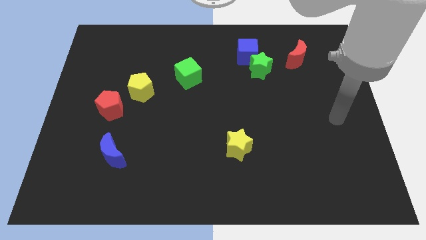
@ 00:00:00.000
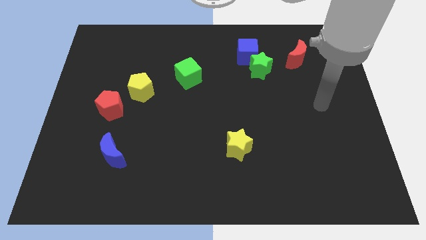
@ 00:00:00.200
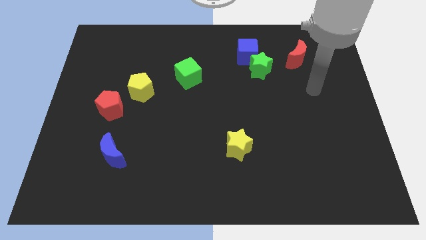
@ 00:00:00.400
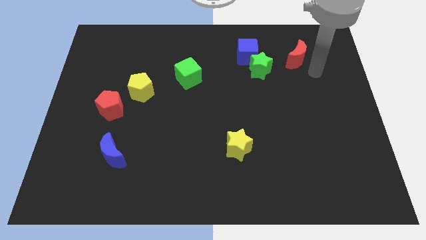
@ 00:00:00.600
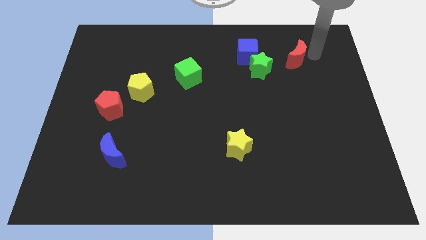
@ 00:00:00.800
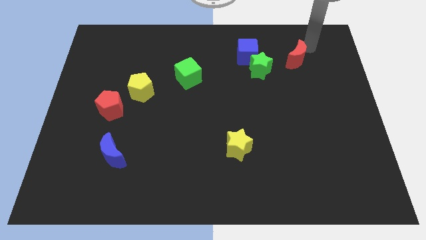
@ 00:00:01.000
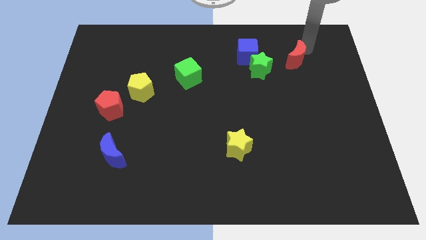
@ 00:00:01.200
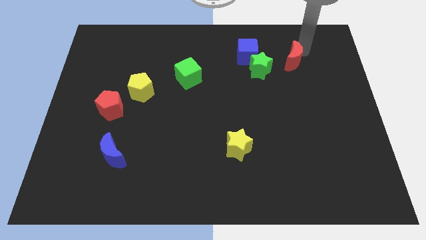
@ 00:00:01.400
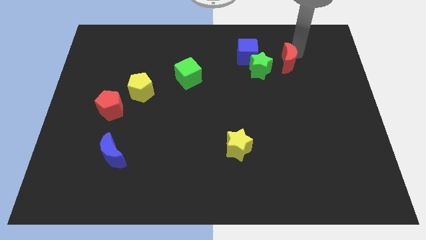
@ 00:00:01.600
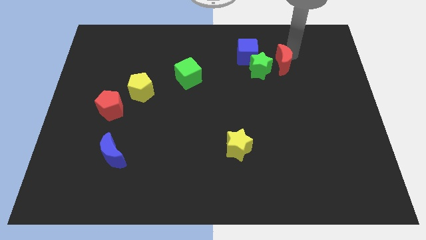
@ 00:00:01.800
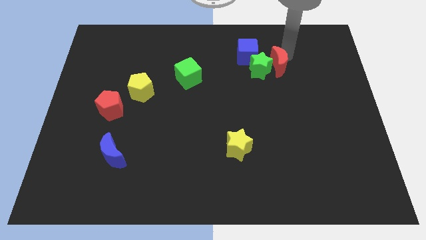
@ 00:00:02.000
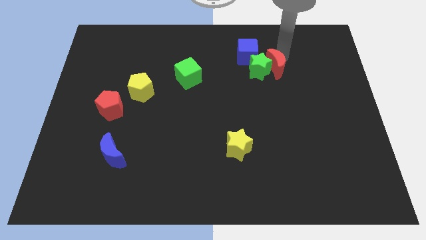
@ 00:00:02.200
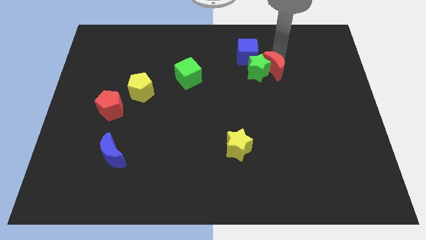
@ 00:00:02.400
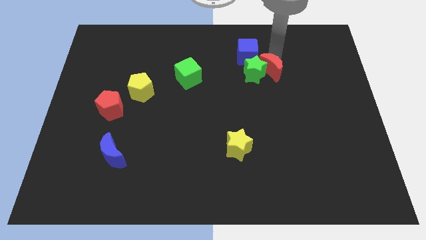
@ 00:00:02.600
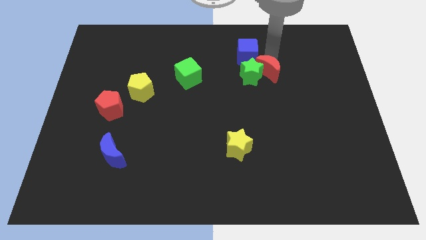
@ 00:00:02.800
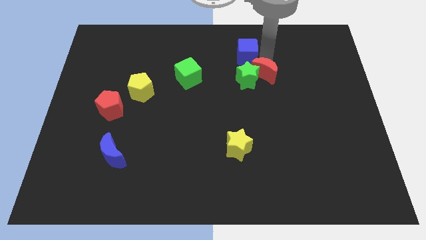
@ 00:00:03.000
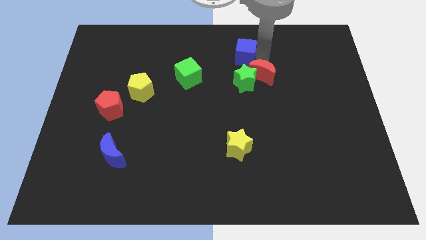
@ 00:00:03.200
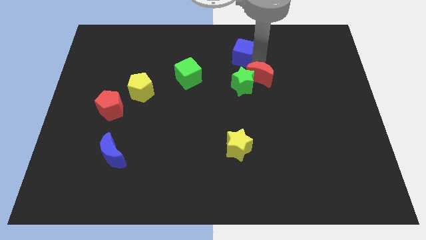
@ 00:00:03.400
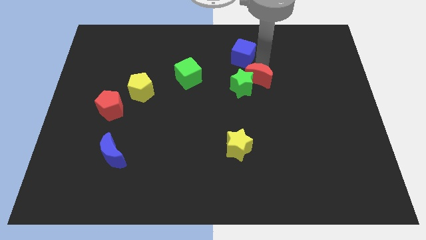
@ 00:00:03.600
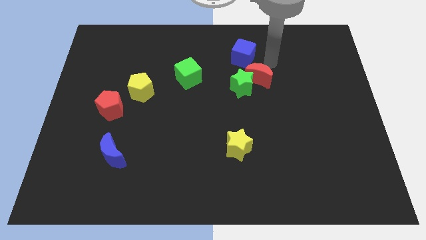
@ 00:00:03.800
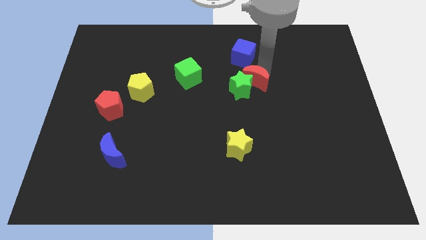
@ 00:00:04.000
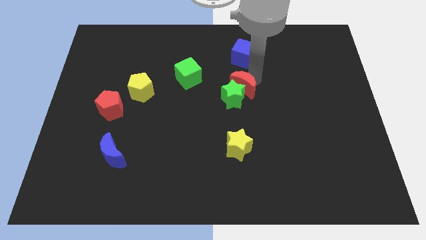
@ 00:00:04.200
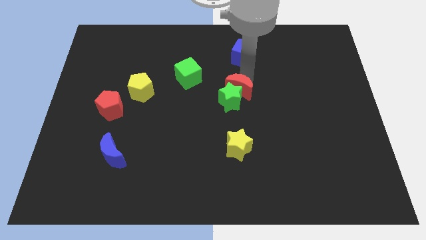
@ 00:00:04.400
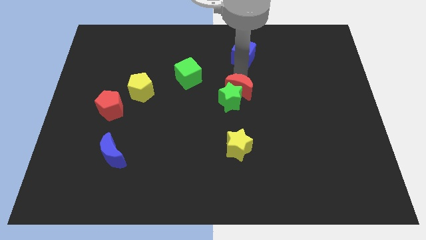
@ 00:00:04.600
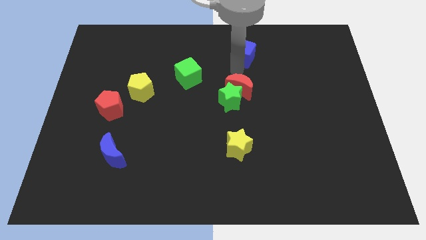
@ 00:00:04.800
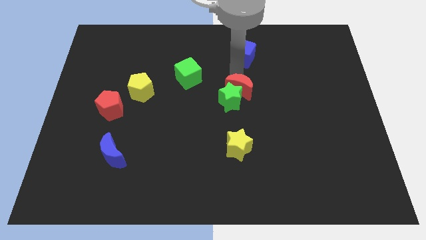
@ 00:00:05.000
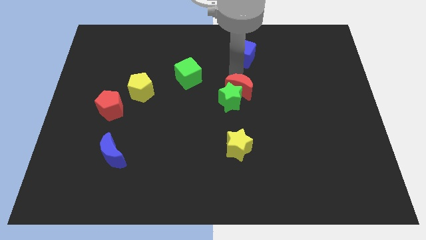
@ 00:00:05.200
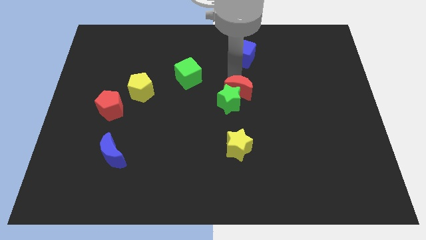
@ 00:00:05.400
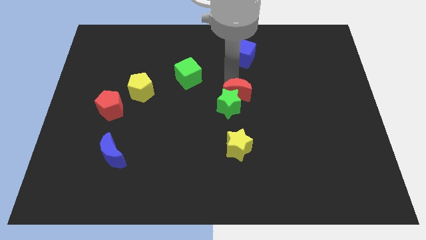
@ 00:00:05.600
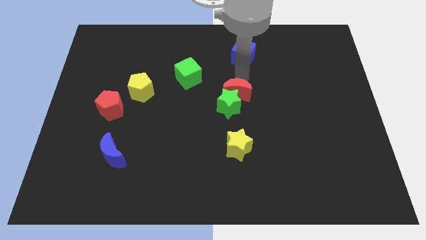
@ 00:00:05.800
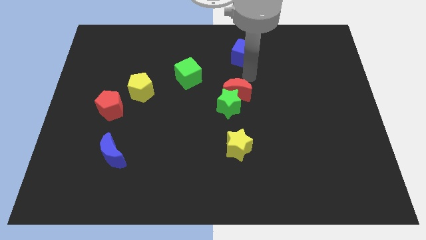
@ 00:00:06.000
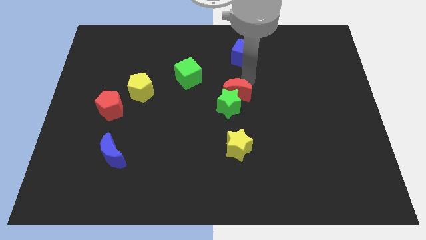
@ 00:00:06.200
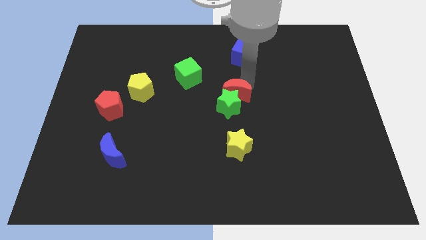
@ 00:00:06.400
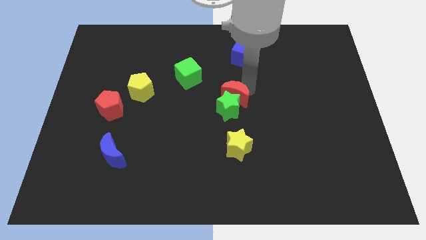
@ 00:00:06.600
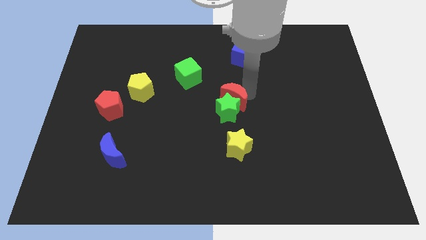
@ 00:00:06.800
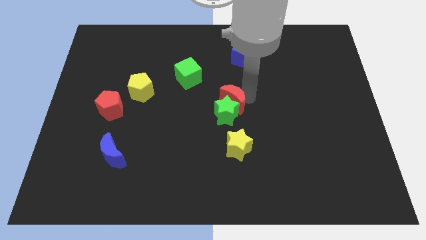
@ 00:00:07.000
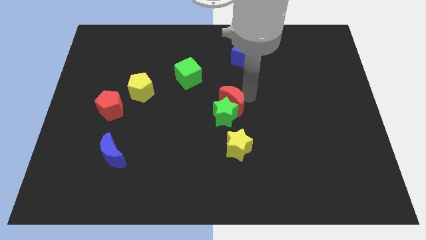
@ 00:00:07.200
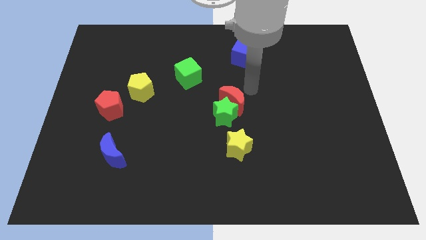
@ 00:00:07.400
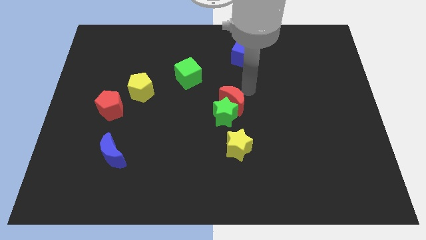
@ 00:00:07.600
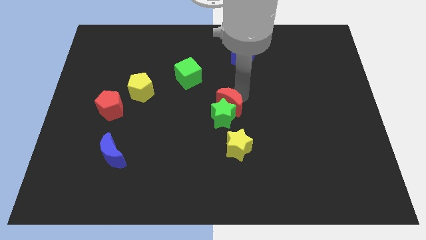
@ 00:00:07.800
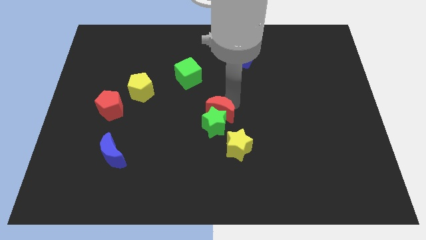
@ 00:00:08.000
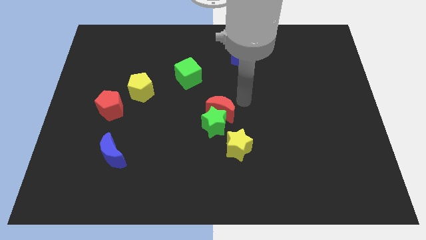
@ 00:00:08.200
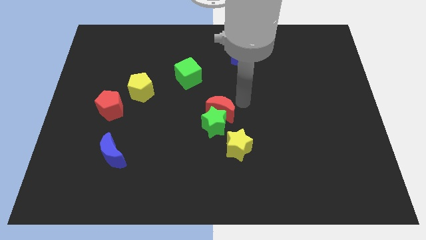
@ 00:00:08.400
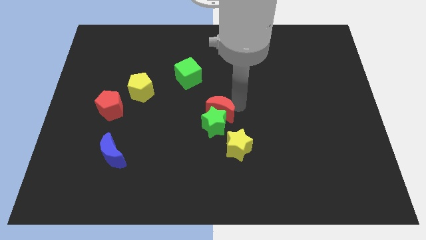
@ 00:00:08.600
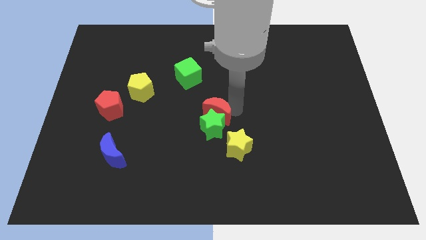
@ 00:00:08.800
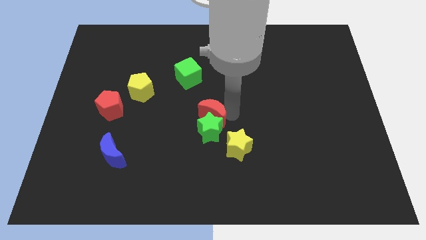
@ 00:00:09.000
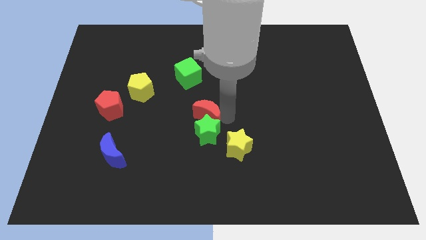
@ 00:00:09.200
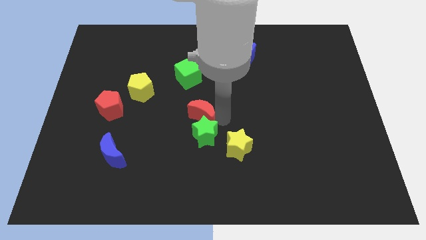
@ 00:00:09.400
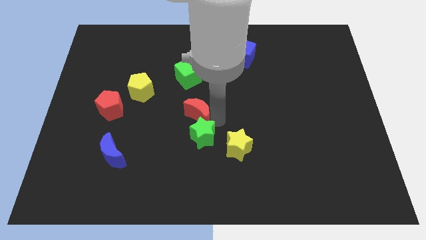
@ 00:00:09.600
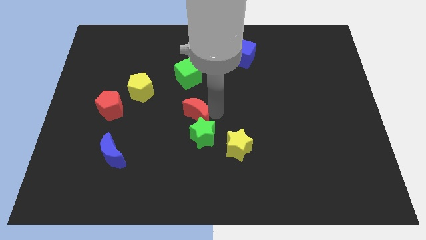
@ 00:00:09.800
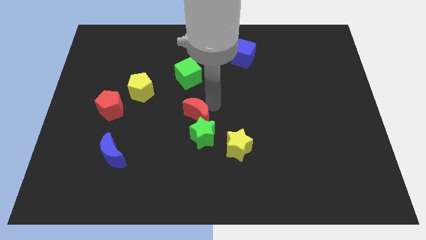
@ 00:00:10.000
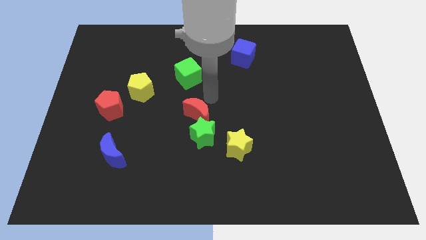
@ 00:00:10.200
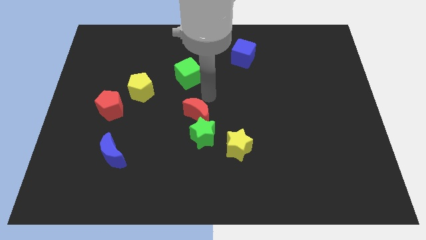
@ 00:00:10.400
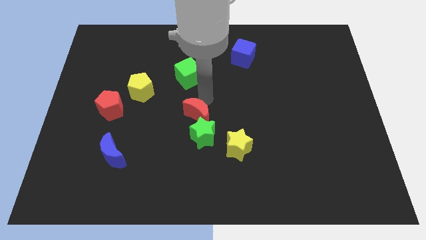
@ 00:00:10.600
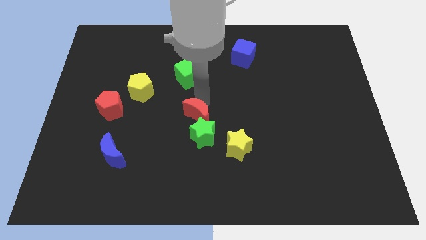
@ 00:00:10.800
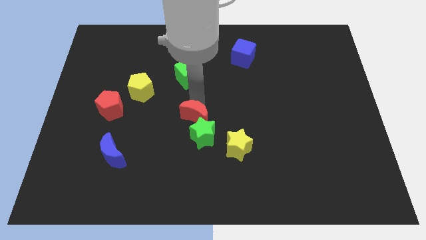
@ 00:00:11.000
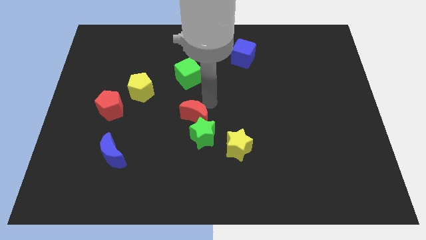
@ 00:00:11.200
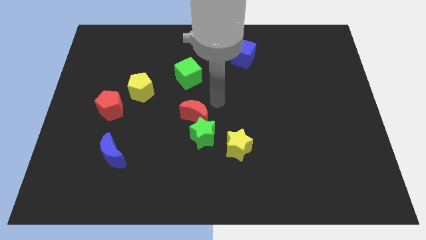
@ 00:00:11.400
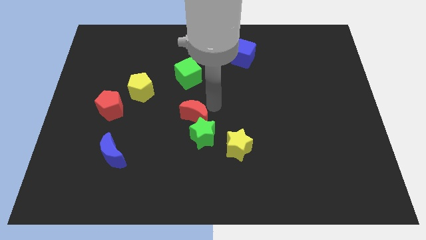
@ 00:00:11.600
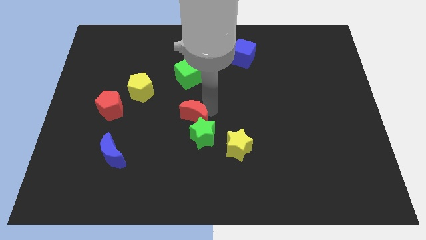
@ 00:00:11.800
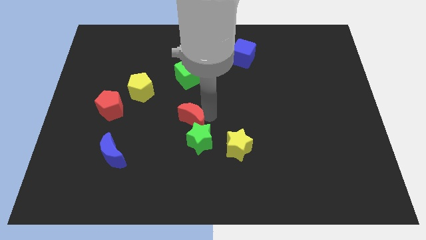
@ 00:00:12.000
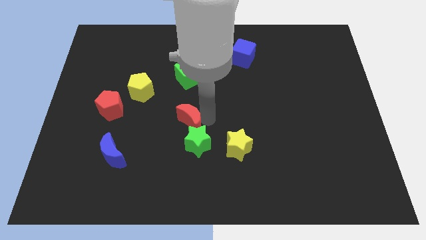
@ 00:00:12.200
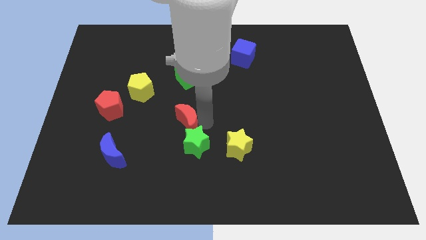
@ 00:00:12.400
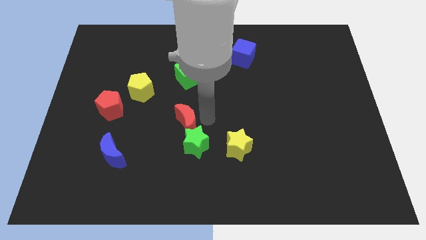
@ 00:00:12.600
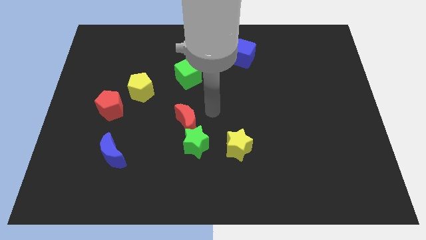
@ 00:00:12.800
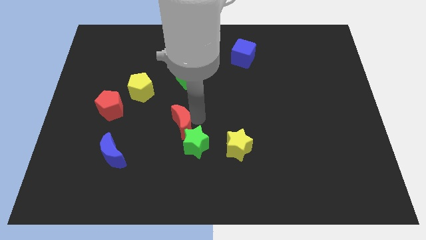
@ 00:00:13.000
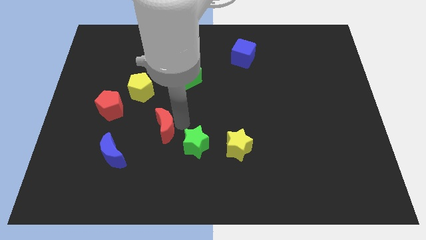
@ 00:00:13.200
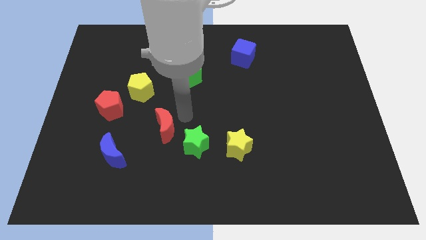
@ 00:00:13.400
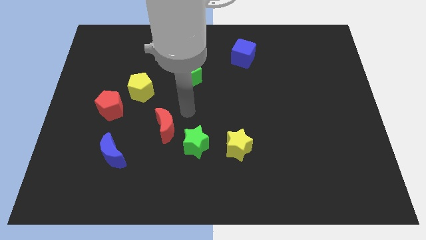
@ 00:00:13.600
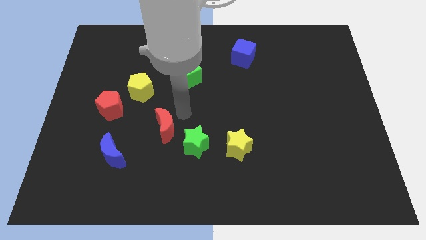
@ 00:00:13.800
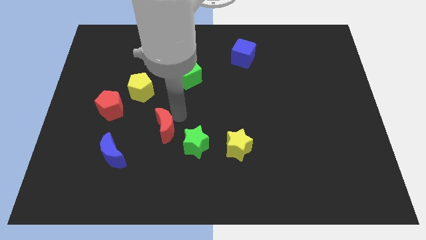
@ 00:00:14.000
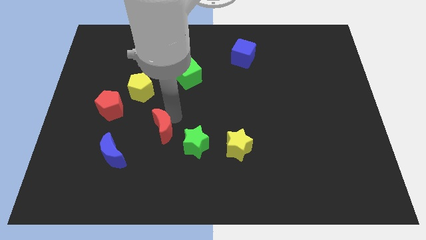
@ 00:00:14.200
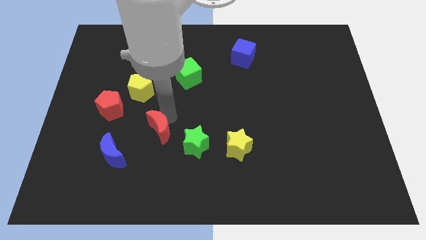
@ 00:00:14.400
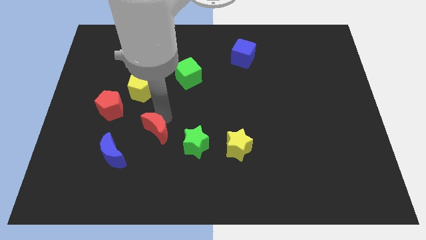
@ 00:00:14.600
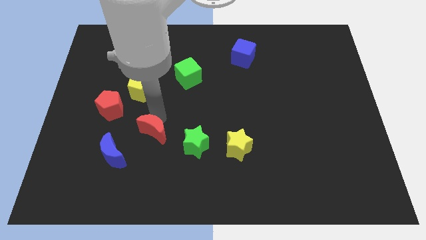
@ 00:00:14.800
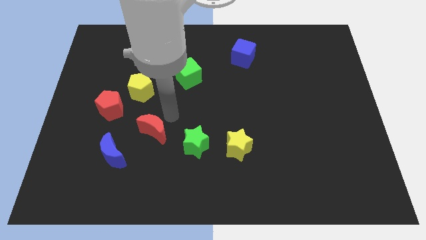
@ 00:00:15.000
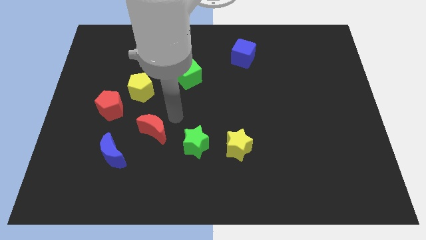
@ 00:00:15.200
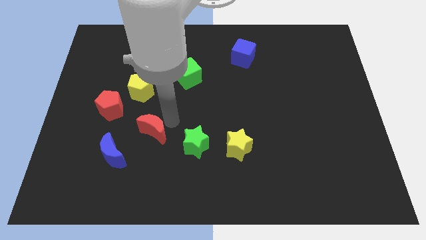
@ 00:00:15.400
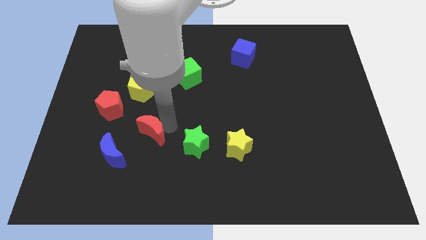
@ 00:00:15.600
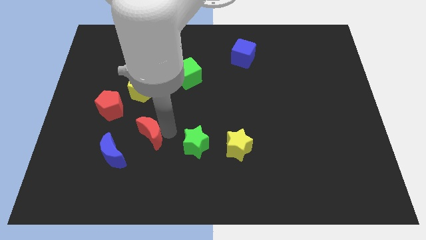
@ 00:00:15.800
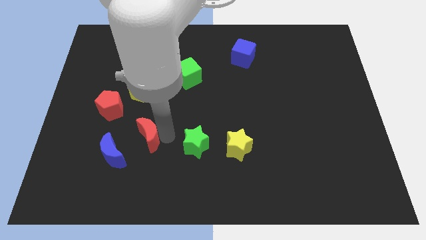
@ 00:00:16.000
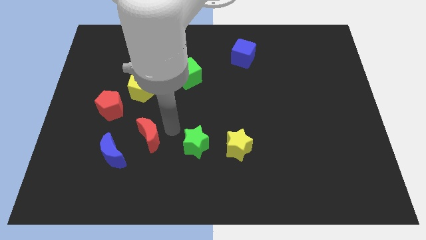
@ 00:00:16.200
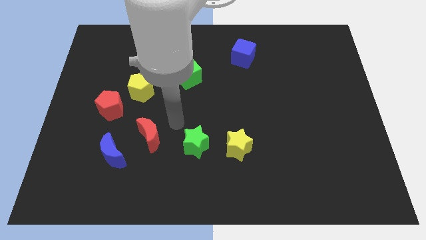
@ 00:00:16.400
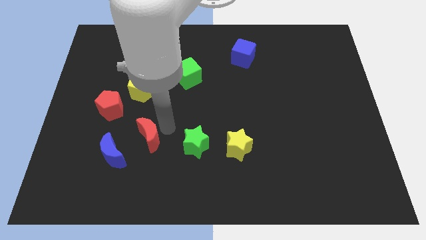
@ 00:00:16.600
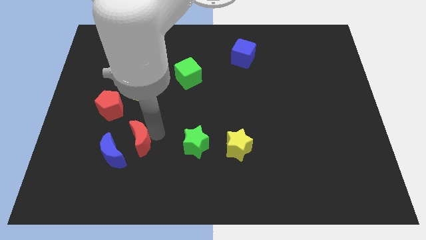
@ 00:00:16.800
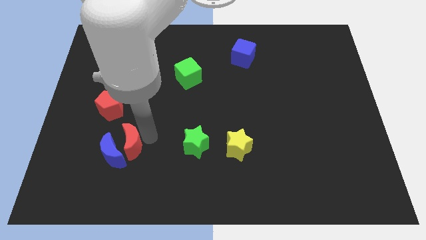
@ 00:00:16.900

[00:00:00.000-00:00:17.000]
push the red moon towards the blue moon
